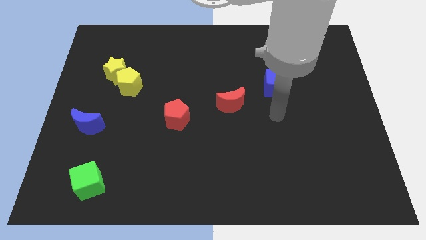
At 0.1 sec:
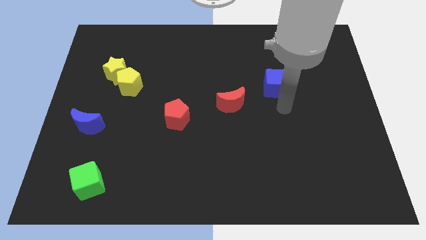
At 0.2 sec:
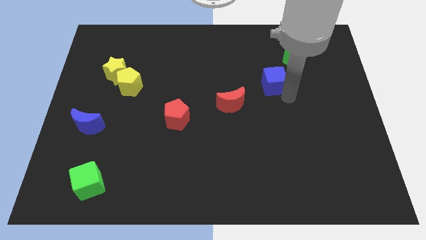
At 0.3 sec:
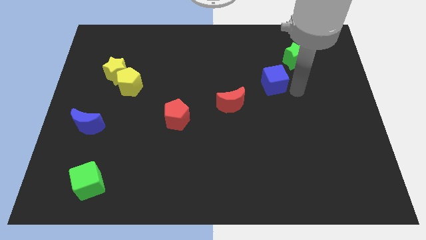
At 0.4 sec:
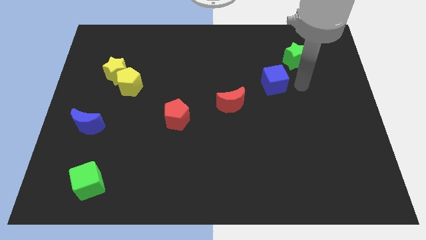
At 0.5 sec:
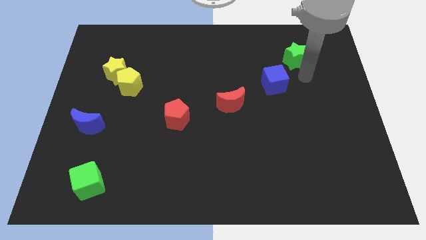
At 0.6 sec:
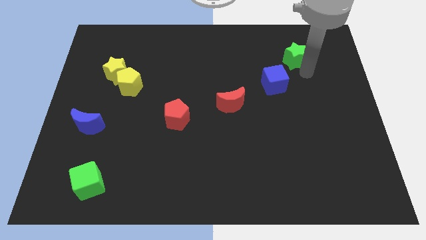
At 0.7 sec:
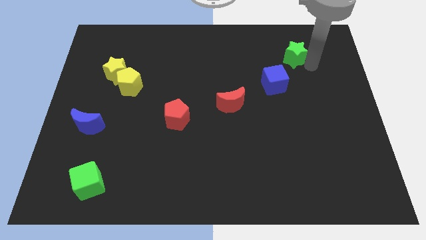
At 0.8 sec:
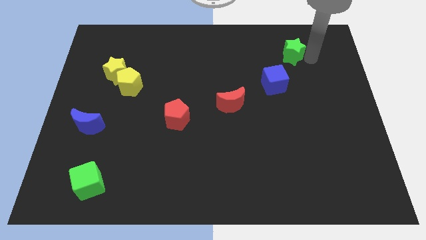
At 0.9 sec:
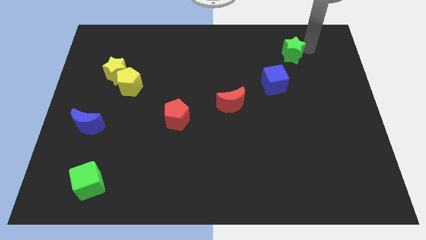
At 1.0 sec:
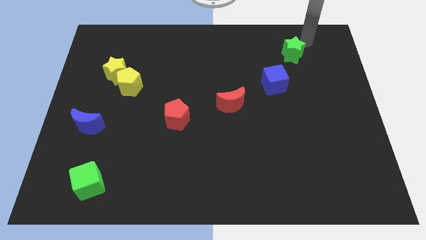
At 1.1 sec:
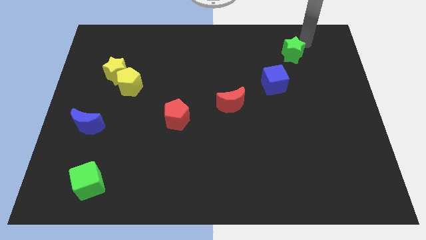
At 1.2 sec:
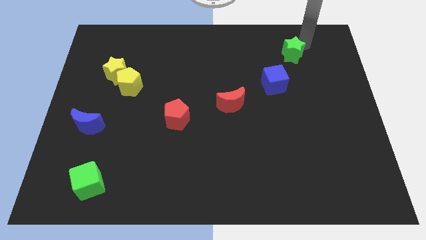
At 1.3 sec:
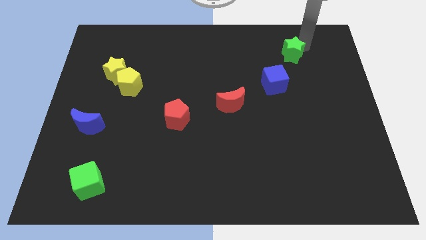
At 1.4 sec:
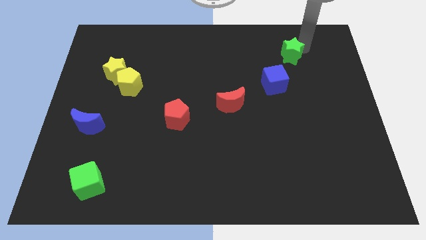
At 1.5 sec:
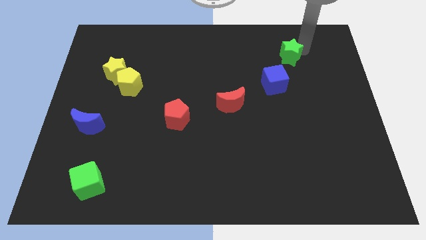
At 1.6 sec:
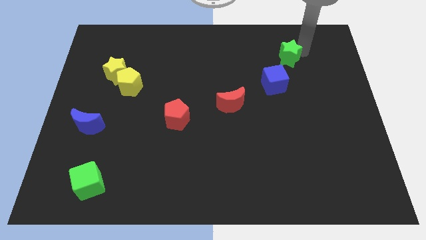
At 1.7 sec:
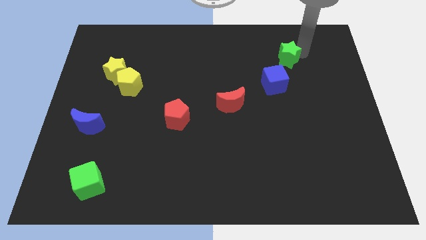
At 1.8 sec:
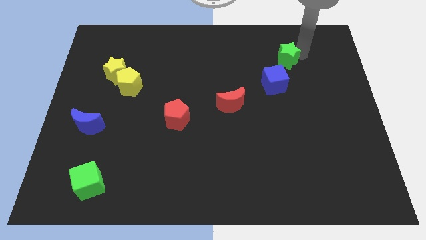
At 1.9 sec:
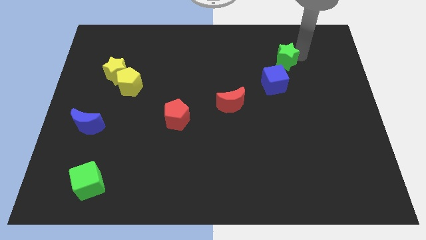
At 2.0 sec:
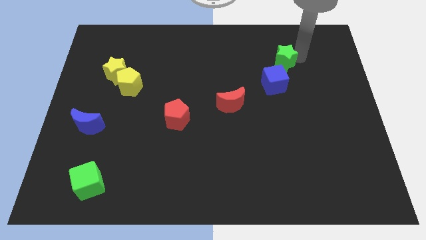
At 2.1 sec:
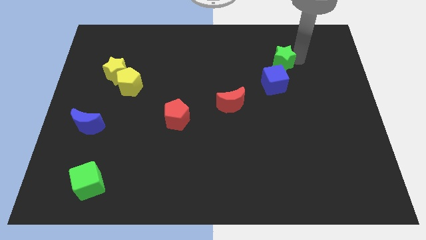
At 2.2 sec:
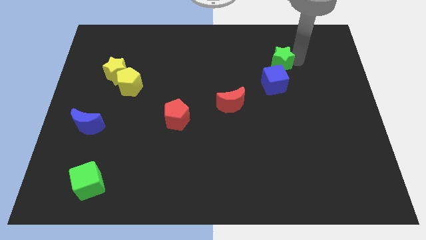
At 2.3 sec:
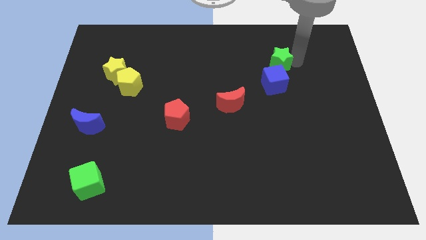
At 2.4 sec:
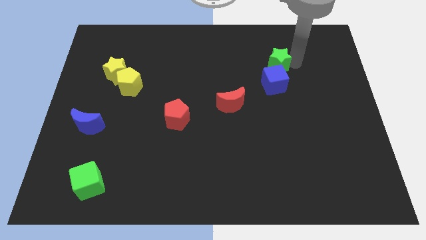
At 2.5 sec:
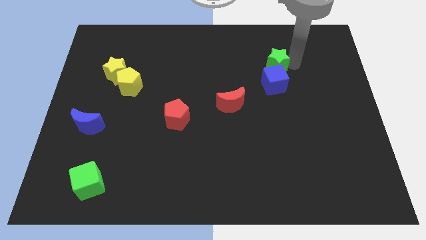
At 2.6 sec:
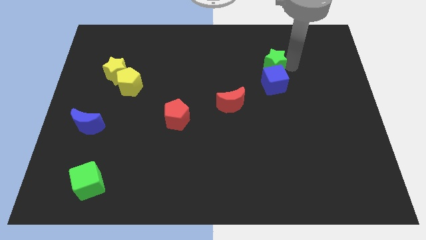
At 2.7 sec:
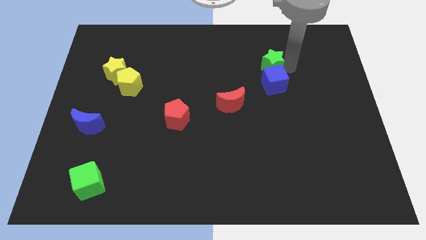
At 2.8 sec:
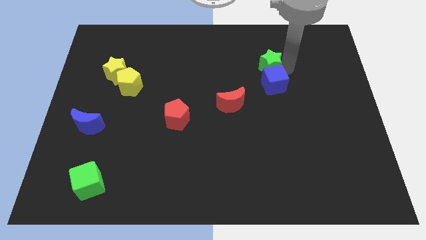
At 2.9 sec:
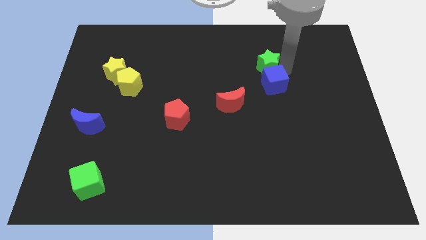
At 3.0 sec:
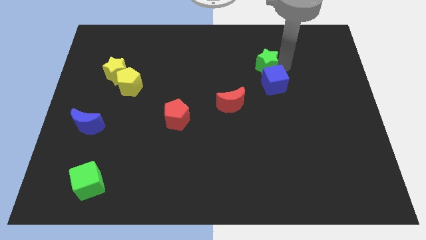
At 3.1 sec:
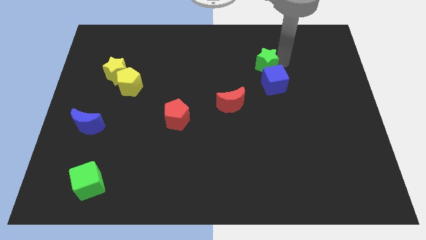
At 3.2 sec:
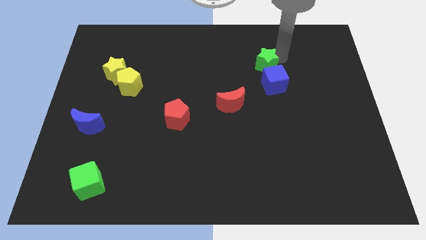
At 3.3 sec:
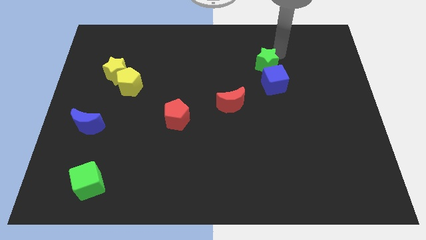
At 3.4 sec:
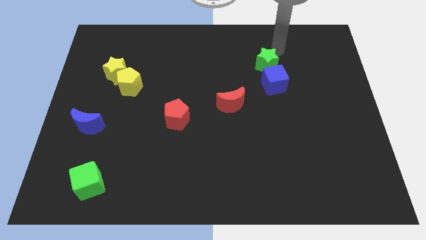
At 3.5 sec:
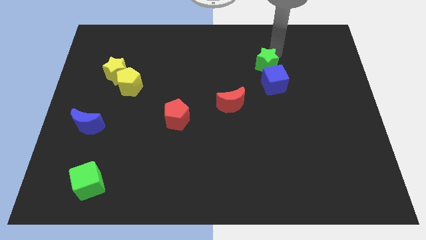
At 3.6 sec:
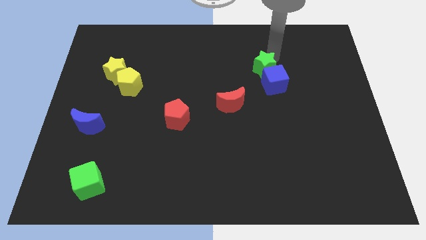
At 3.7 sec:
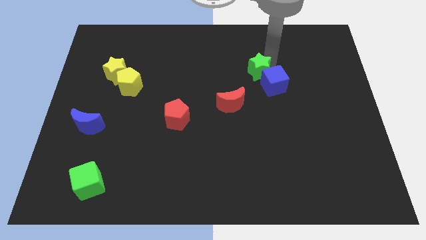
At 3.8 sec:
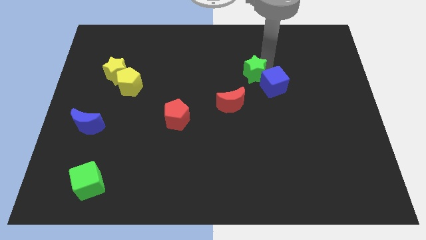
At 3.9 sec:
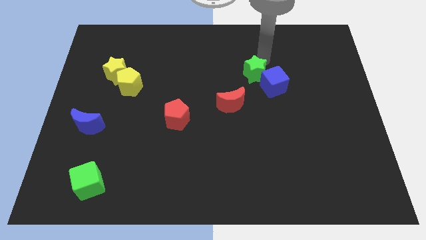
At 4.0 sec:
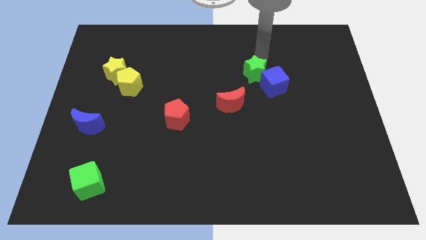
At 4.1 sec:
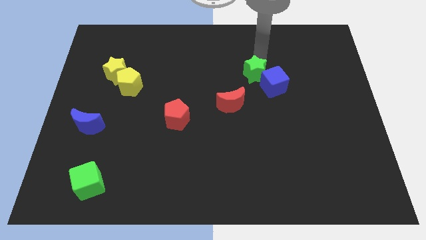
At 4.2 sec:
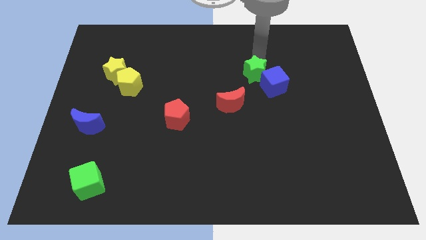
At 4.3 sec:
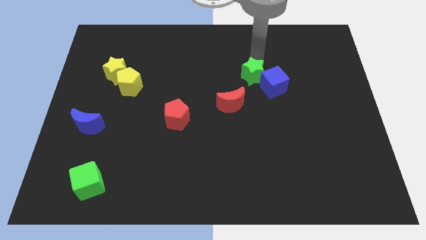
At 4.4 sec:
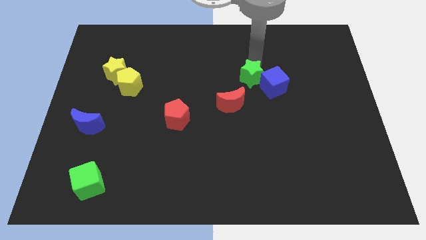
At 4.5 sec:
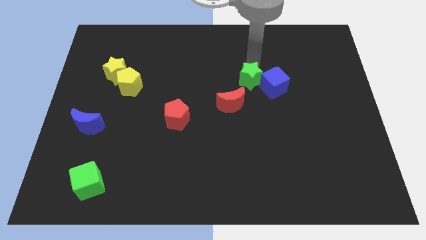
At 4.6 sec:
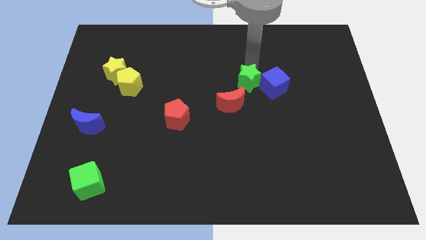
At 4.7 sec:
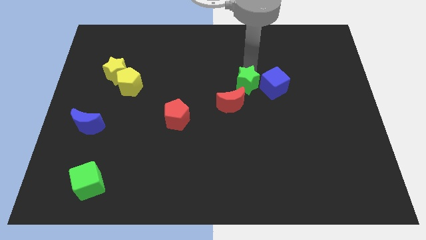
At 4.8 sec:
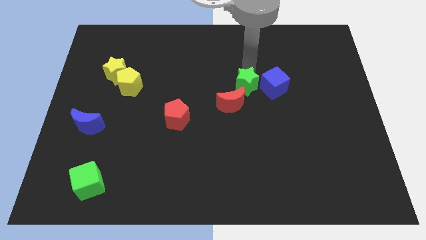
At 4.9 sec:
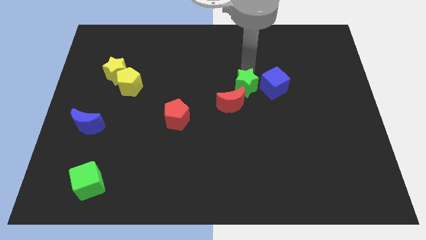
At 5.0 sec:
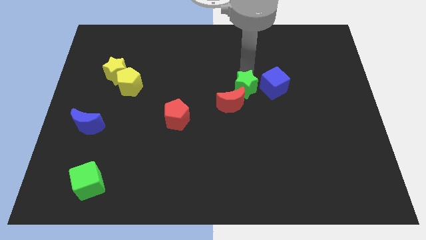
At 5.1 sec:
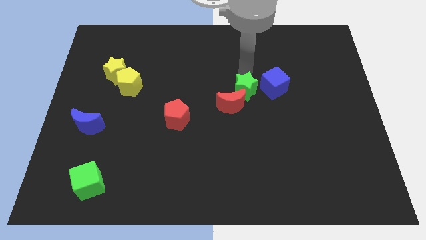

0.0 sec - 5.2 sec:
move the green star close to the red moon

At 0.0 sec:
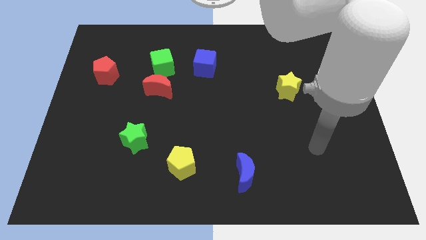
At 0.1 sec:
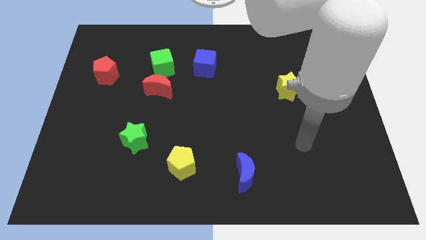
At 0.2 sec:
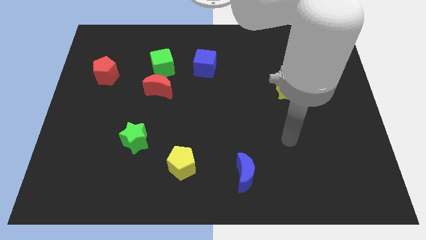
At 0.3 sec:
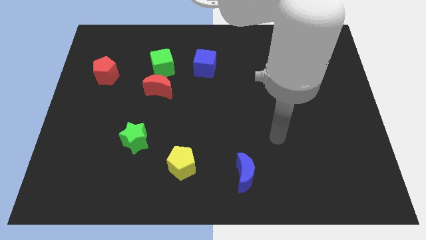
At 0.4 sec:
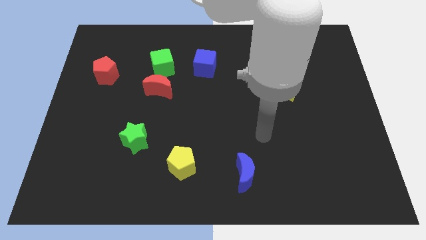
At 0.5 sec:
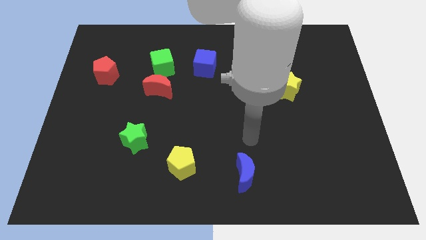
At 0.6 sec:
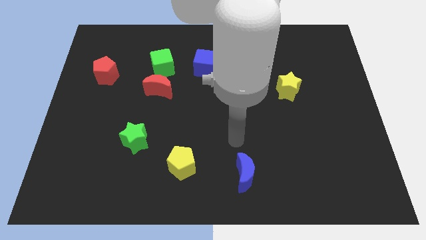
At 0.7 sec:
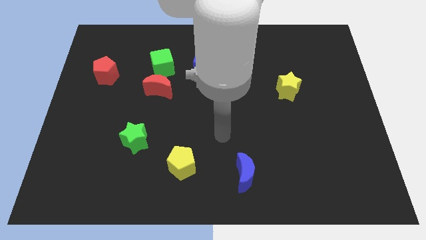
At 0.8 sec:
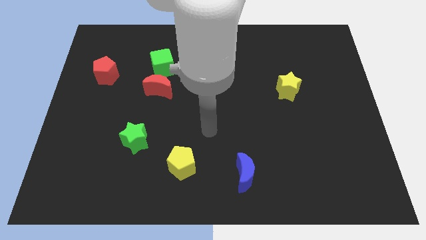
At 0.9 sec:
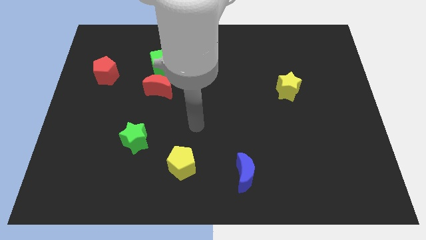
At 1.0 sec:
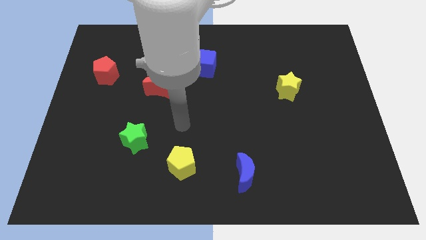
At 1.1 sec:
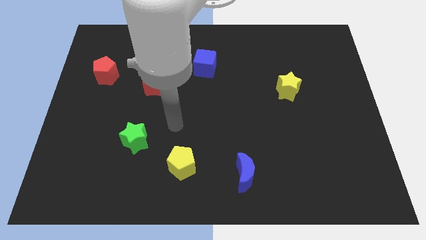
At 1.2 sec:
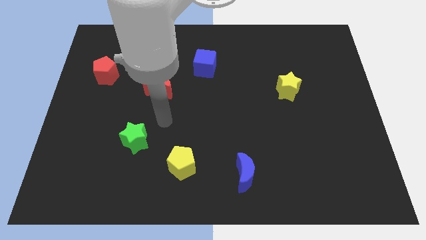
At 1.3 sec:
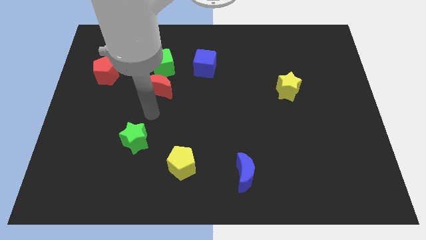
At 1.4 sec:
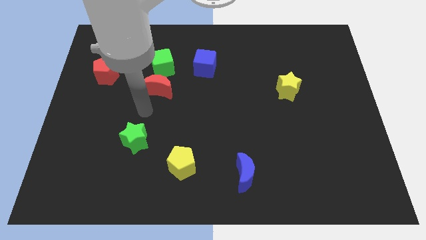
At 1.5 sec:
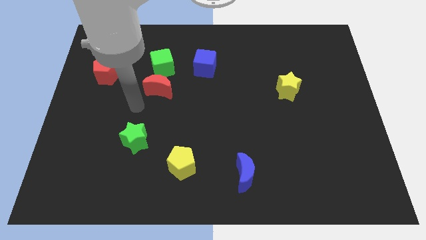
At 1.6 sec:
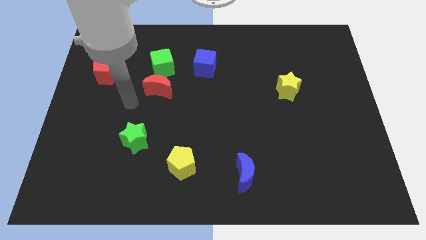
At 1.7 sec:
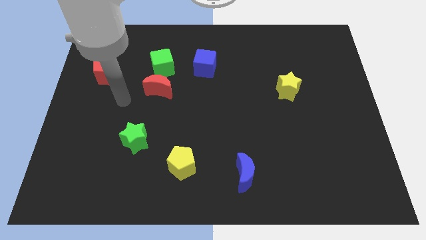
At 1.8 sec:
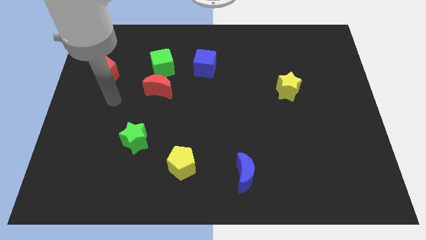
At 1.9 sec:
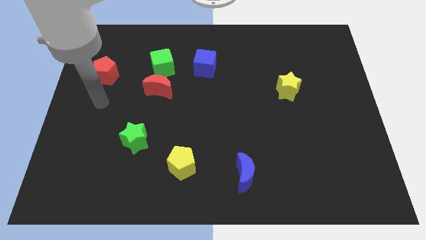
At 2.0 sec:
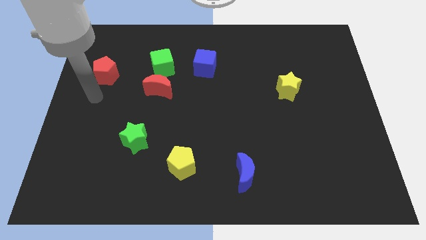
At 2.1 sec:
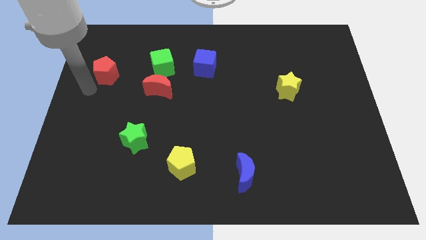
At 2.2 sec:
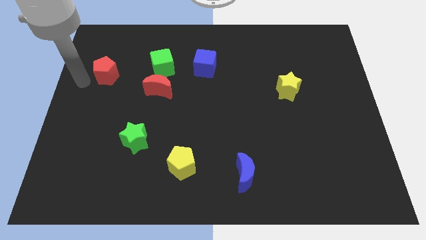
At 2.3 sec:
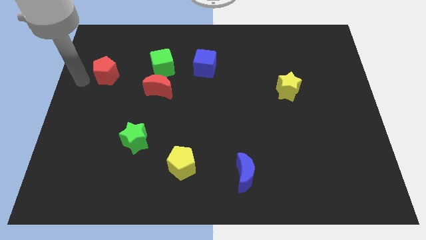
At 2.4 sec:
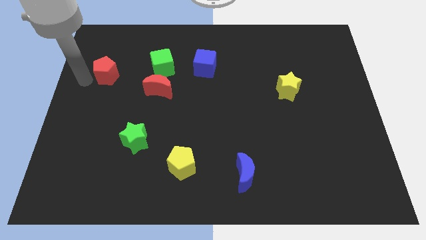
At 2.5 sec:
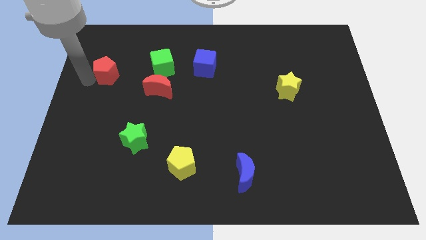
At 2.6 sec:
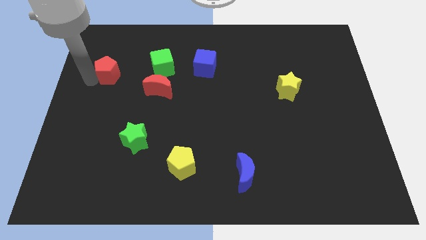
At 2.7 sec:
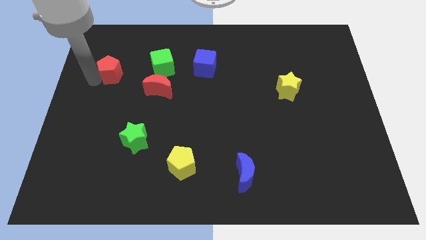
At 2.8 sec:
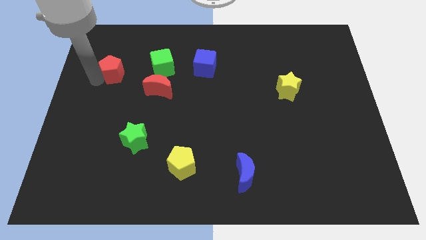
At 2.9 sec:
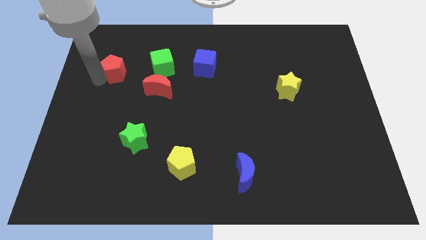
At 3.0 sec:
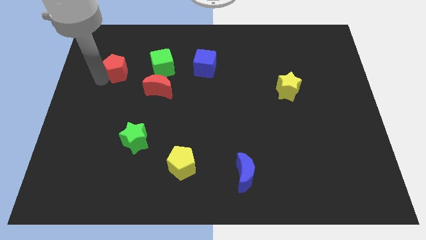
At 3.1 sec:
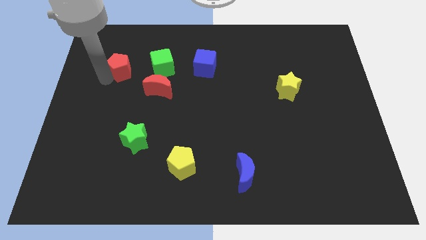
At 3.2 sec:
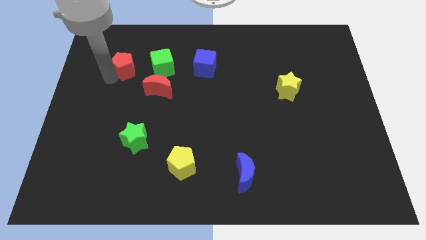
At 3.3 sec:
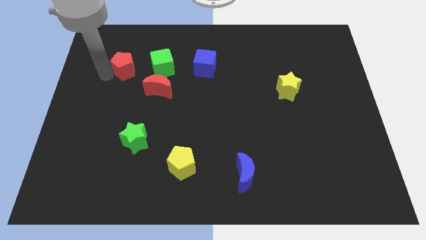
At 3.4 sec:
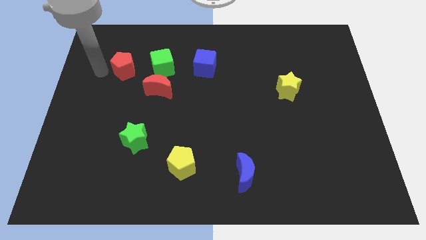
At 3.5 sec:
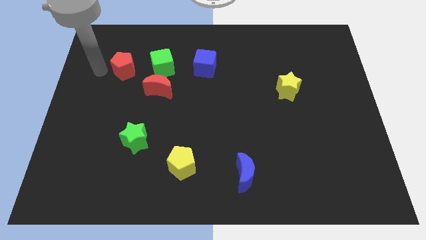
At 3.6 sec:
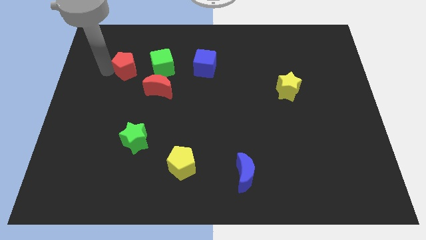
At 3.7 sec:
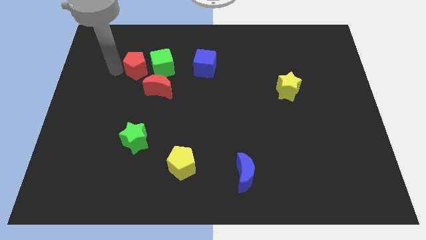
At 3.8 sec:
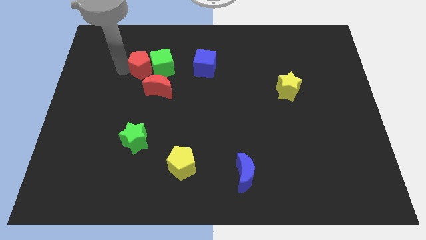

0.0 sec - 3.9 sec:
push the red pentagon next to the green cube
